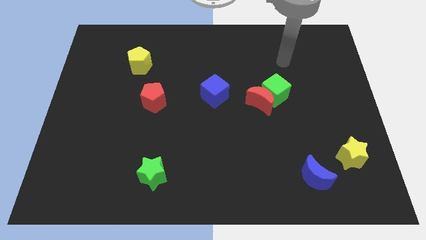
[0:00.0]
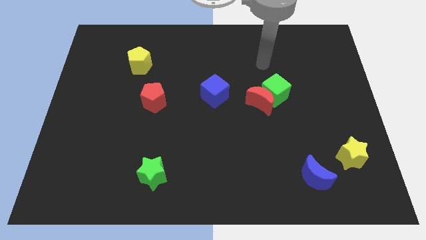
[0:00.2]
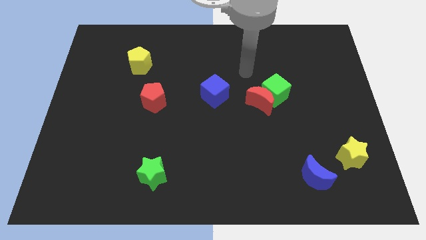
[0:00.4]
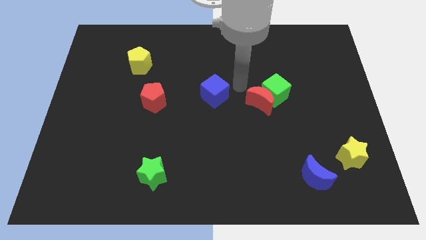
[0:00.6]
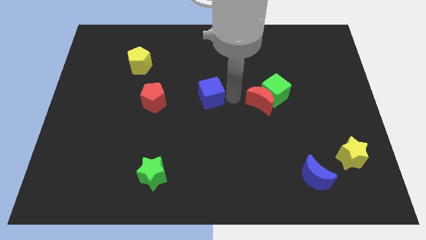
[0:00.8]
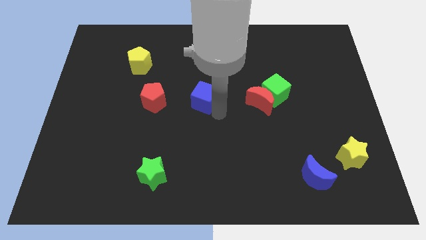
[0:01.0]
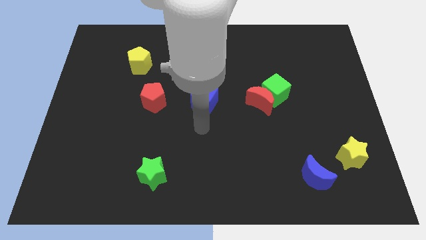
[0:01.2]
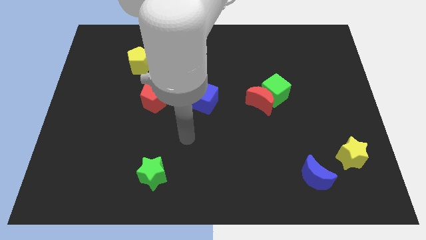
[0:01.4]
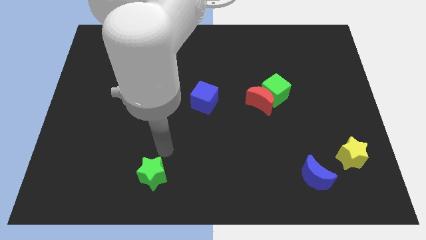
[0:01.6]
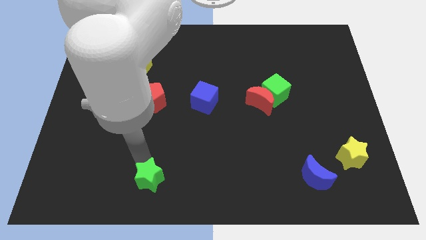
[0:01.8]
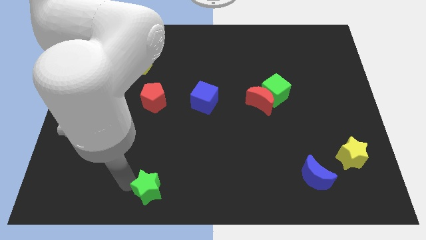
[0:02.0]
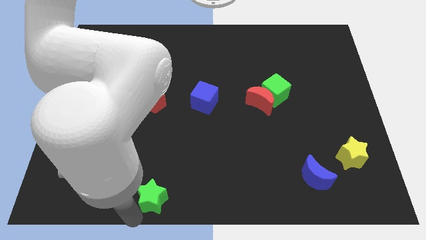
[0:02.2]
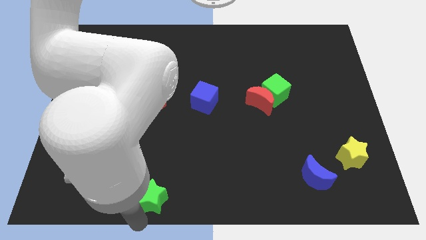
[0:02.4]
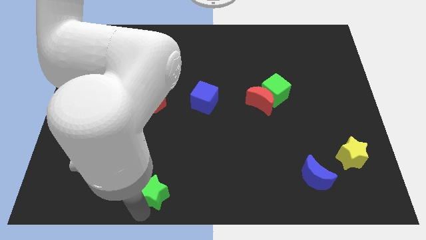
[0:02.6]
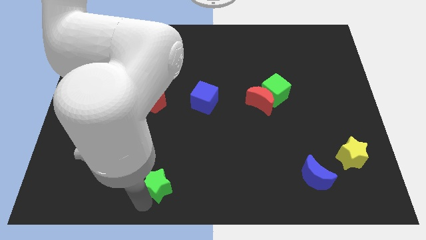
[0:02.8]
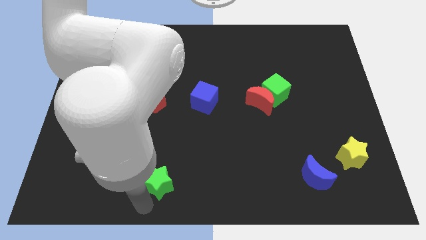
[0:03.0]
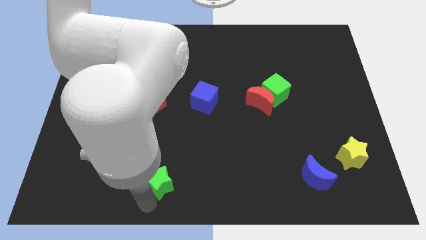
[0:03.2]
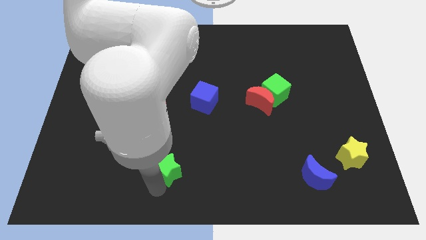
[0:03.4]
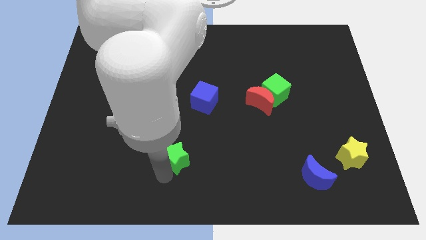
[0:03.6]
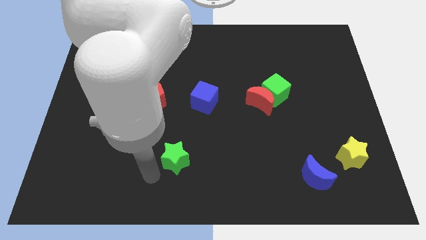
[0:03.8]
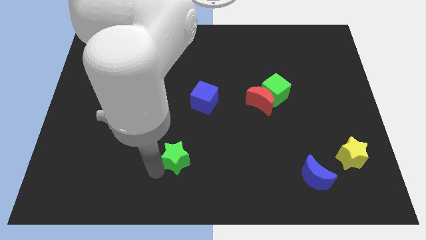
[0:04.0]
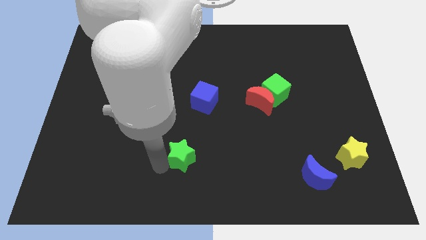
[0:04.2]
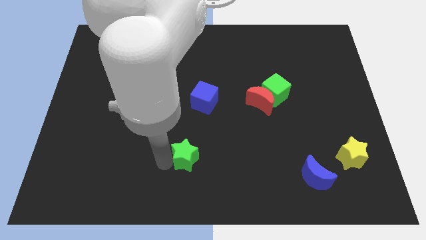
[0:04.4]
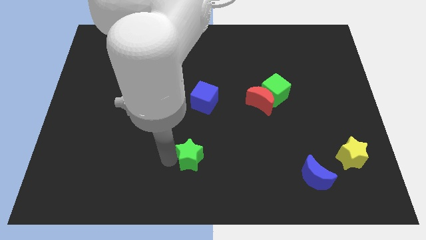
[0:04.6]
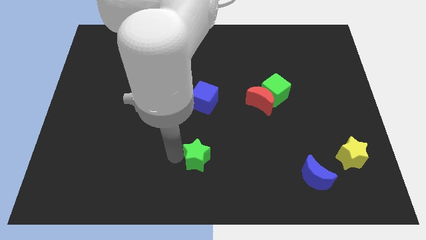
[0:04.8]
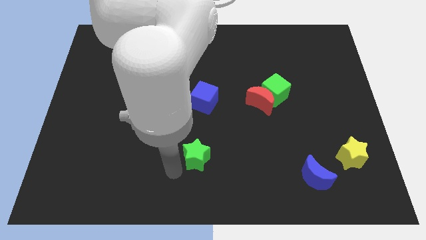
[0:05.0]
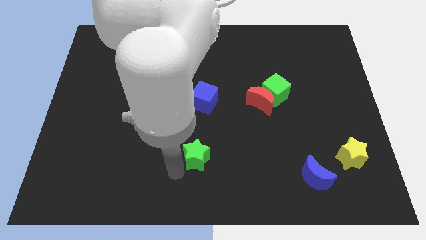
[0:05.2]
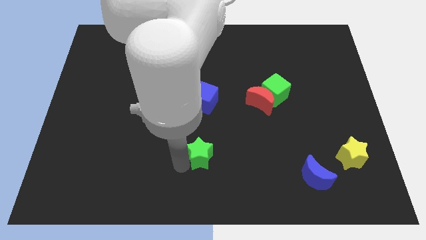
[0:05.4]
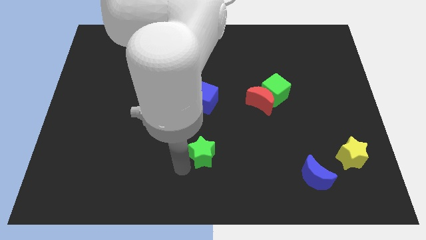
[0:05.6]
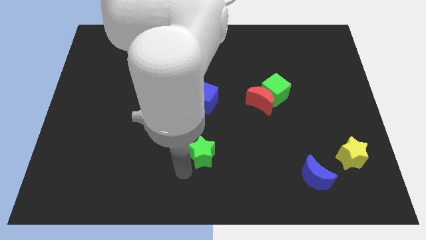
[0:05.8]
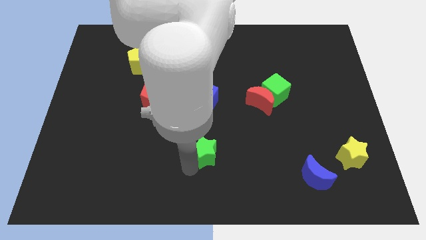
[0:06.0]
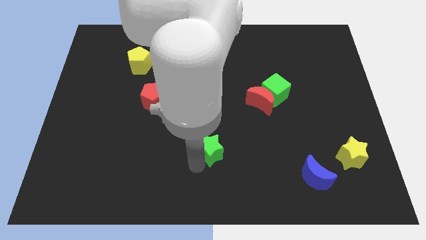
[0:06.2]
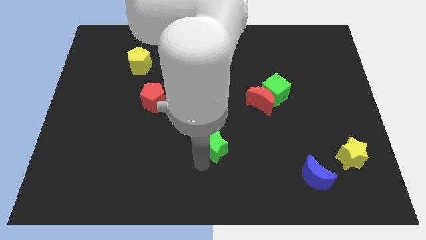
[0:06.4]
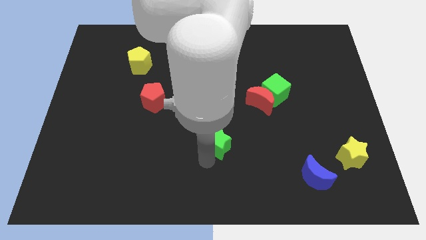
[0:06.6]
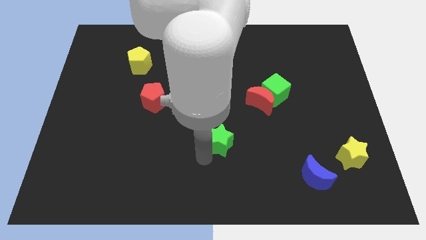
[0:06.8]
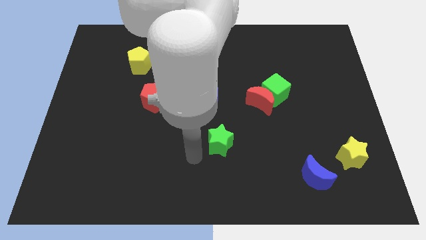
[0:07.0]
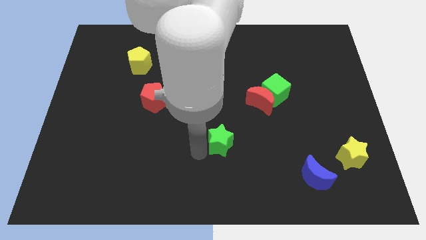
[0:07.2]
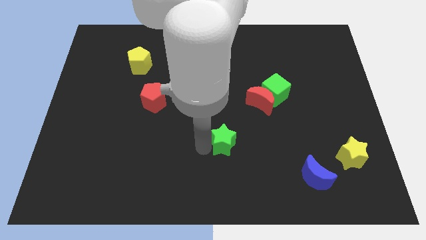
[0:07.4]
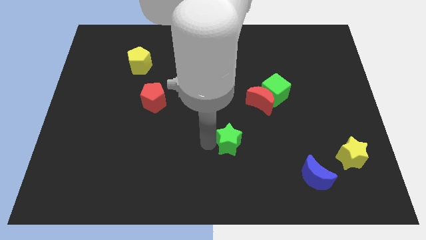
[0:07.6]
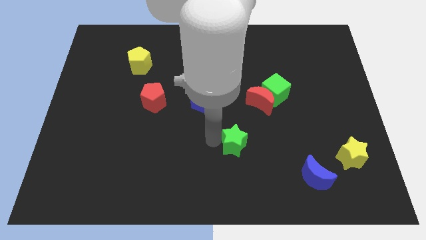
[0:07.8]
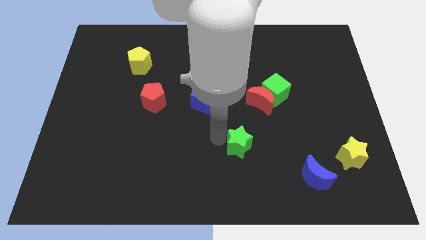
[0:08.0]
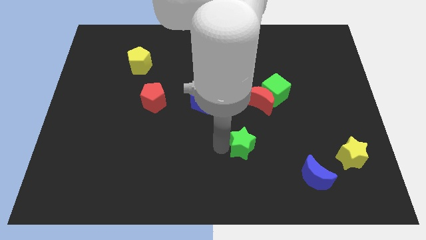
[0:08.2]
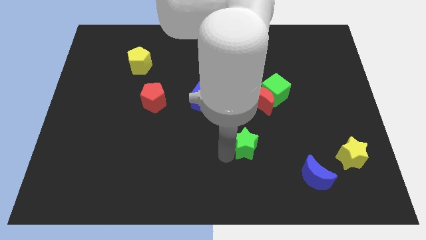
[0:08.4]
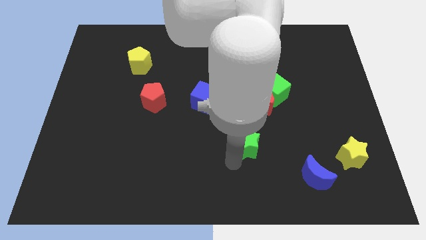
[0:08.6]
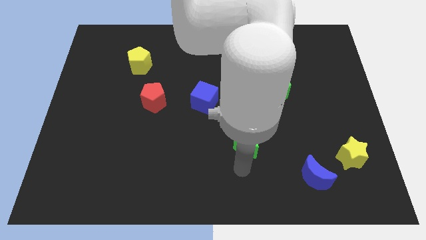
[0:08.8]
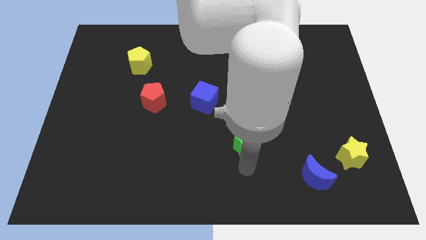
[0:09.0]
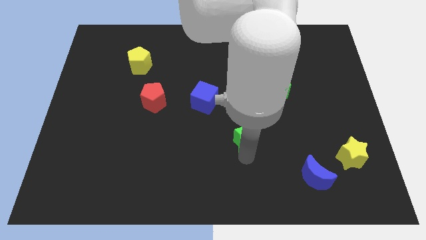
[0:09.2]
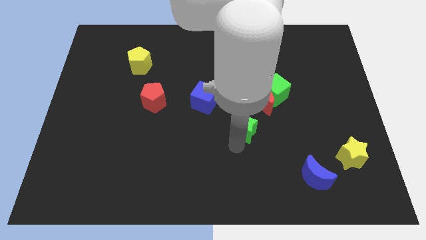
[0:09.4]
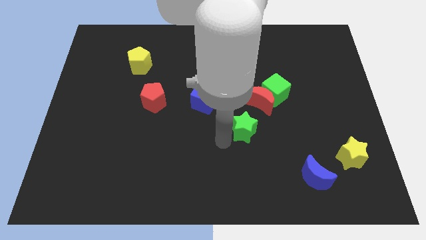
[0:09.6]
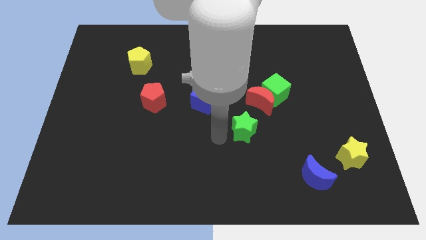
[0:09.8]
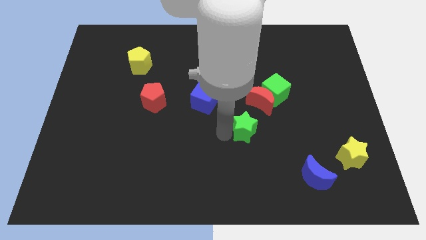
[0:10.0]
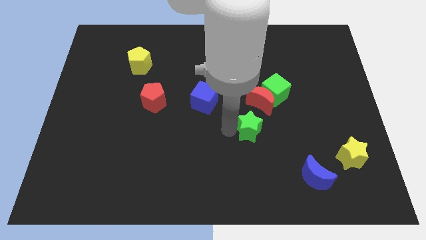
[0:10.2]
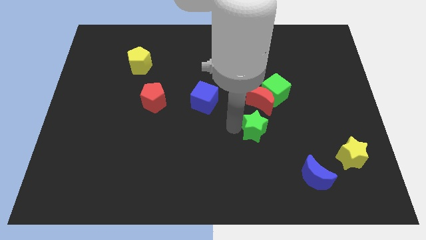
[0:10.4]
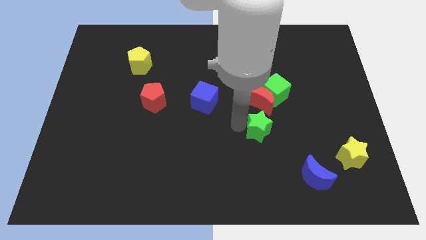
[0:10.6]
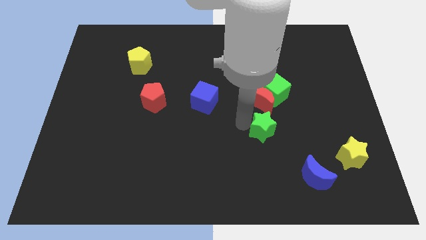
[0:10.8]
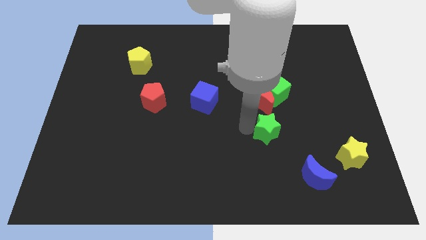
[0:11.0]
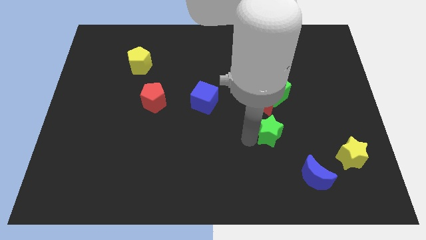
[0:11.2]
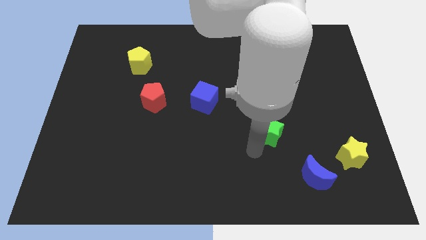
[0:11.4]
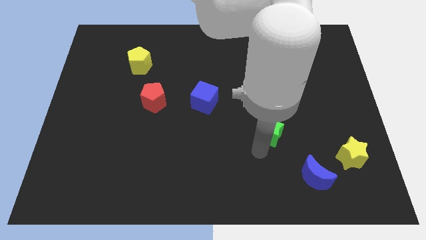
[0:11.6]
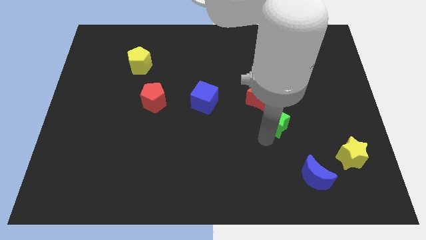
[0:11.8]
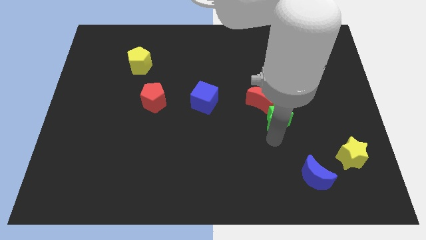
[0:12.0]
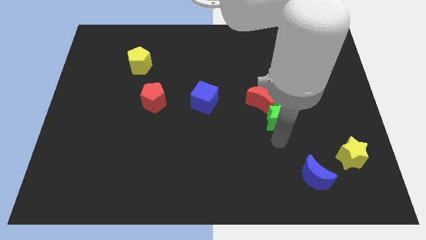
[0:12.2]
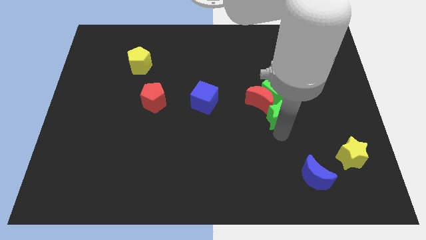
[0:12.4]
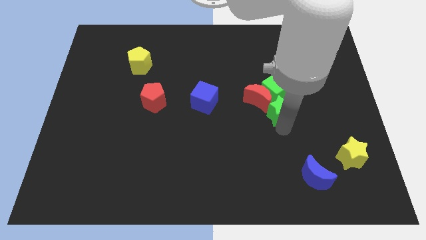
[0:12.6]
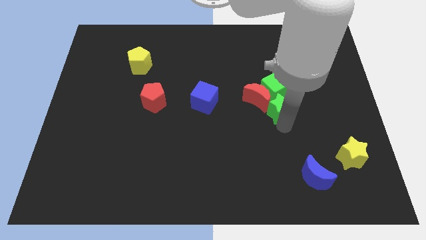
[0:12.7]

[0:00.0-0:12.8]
move the green star to the green cube

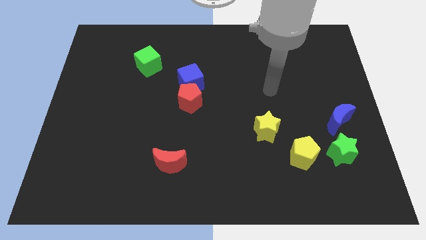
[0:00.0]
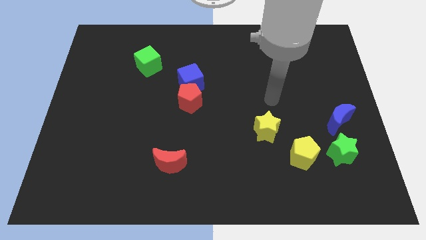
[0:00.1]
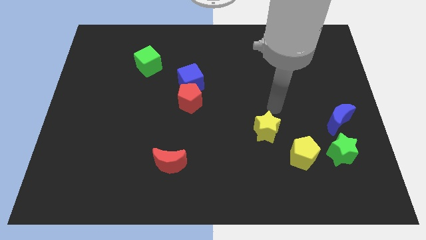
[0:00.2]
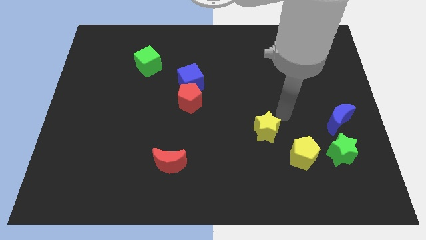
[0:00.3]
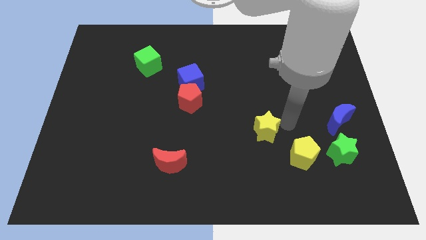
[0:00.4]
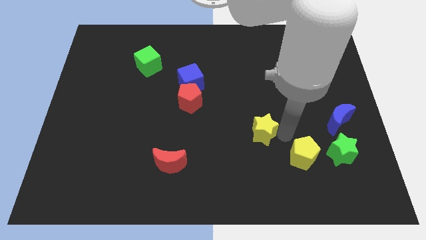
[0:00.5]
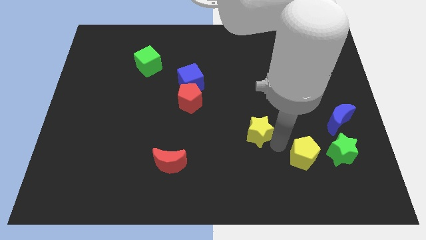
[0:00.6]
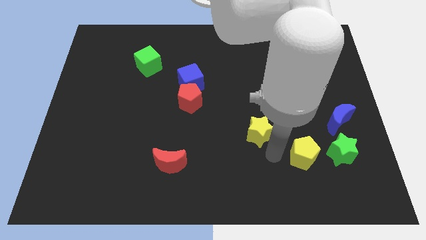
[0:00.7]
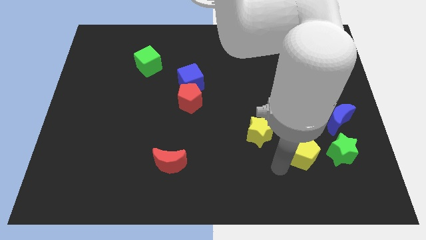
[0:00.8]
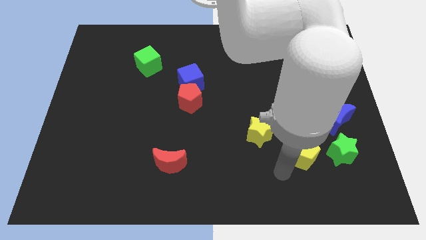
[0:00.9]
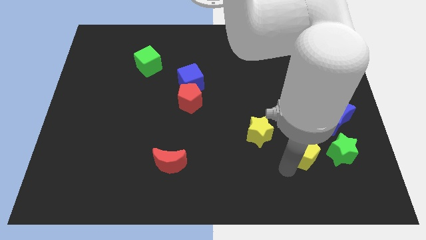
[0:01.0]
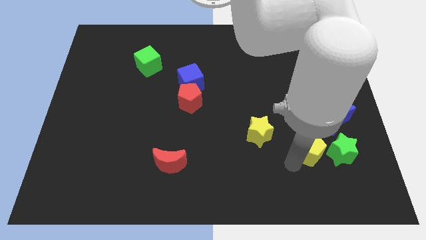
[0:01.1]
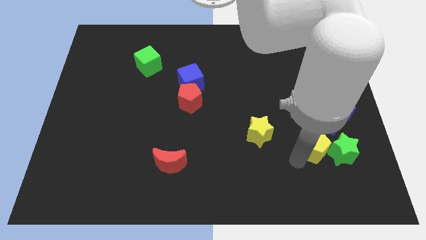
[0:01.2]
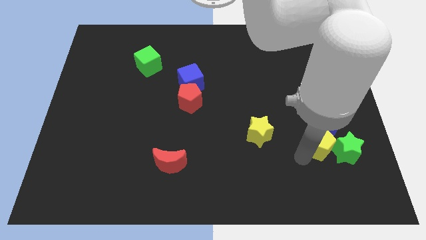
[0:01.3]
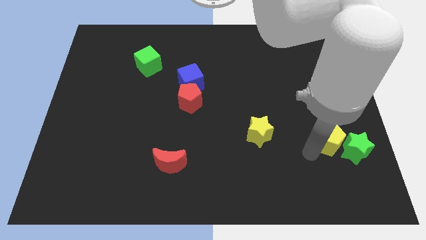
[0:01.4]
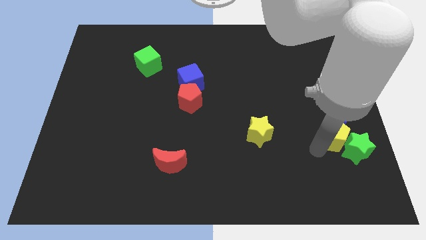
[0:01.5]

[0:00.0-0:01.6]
push the yellow pentagon close to the blue moon
